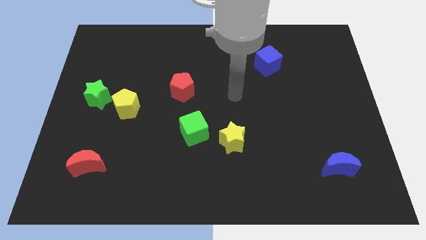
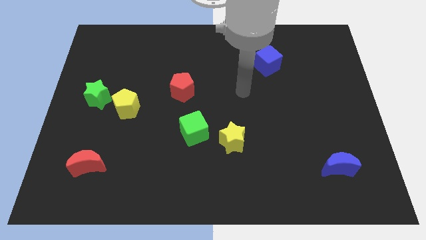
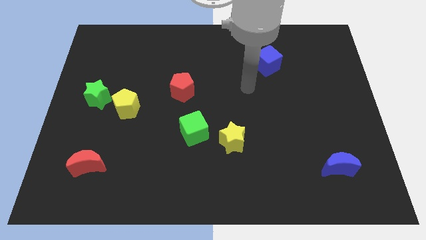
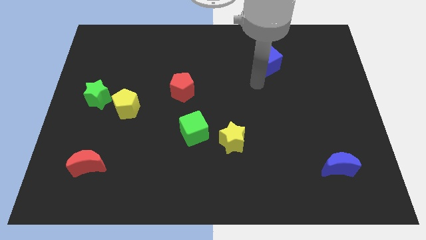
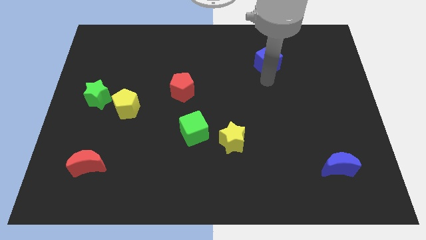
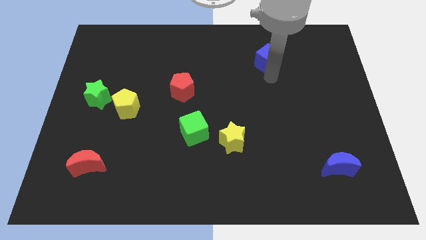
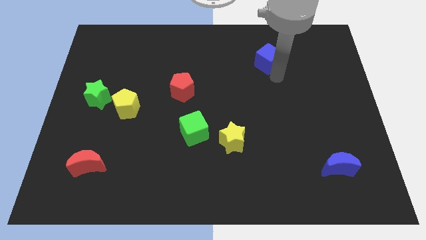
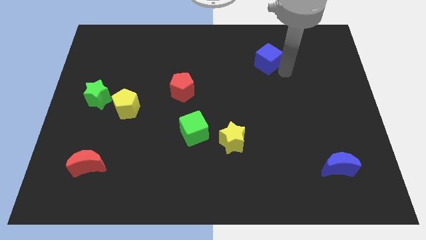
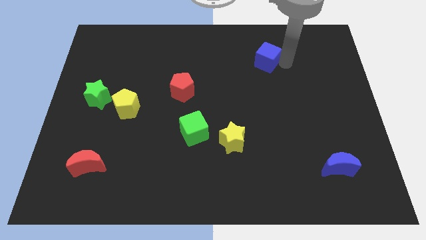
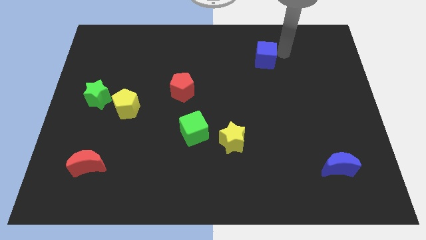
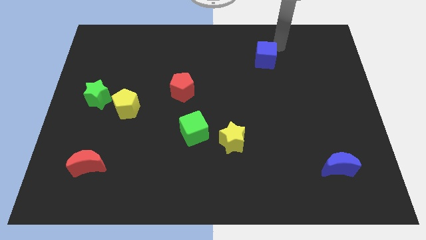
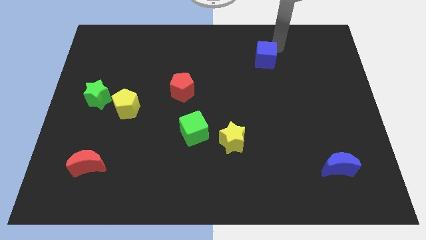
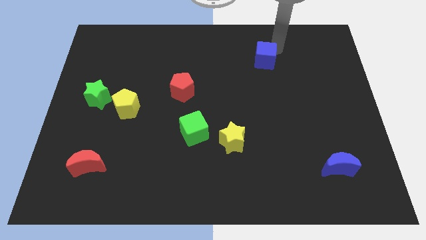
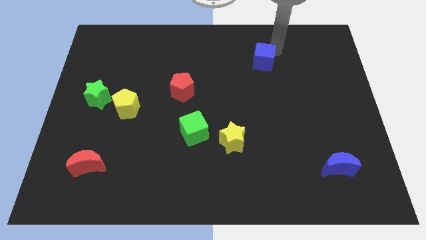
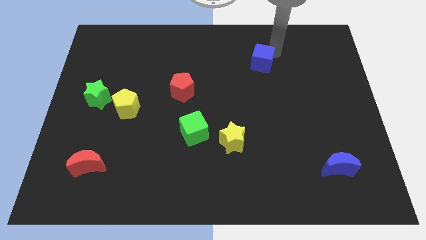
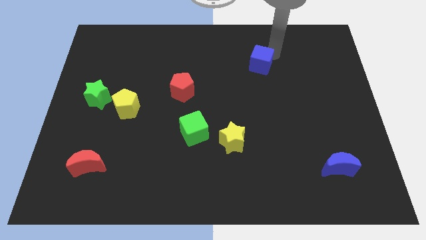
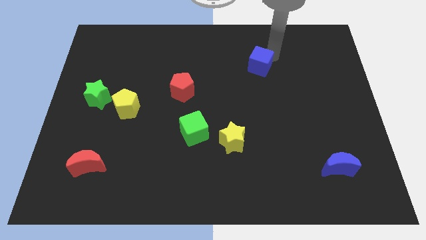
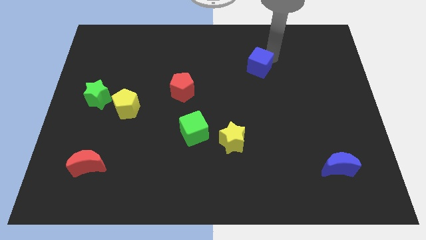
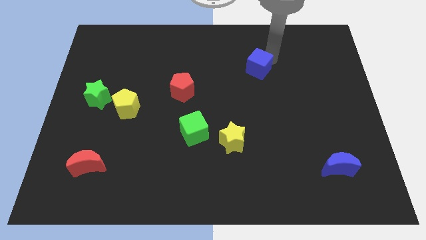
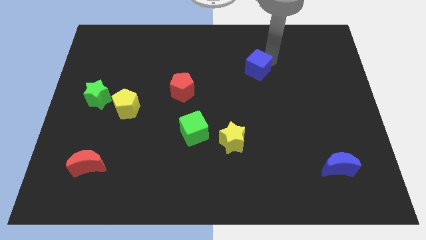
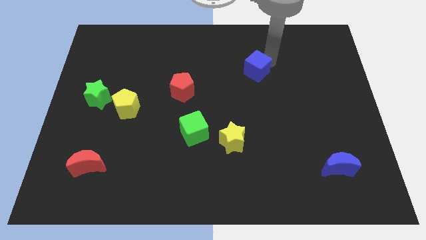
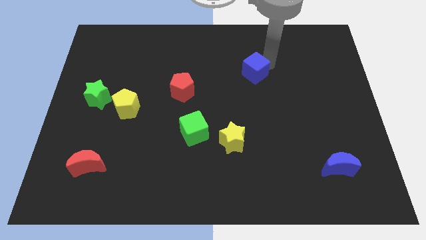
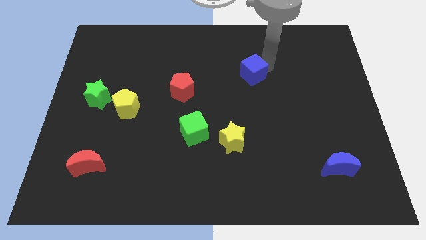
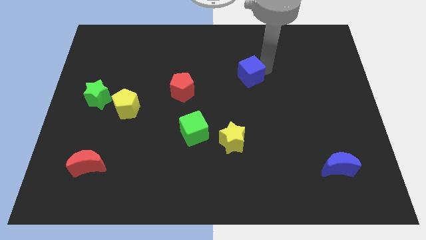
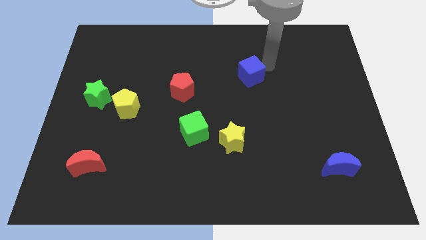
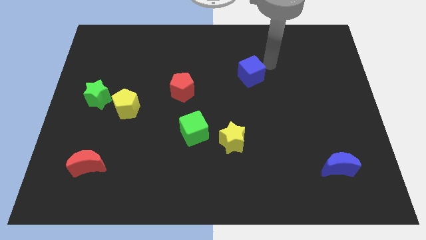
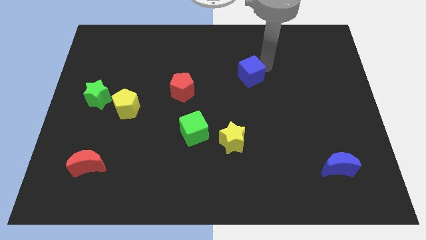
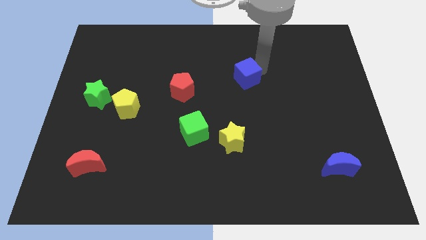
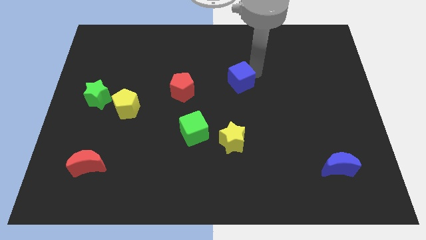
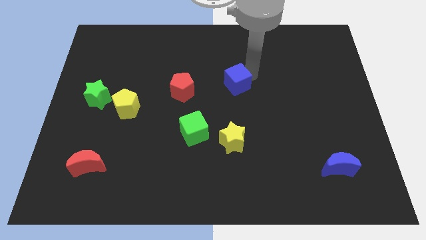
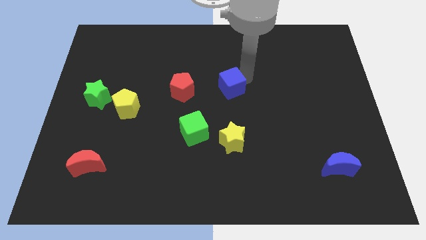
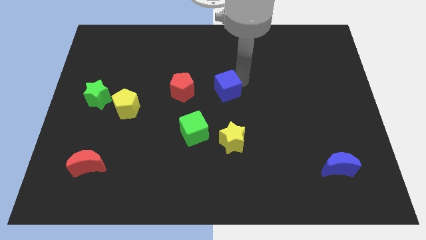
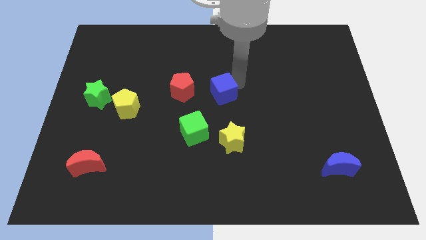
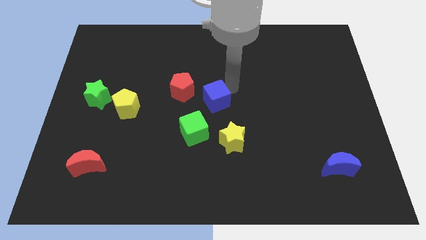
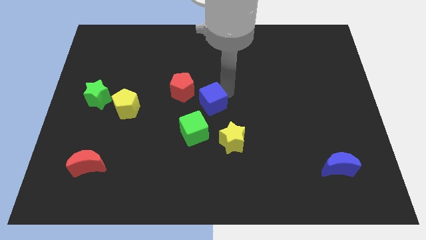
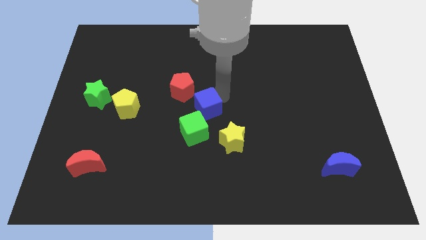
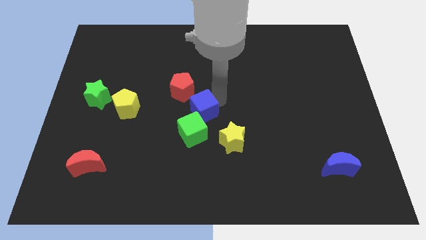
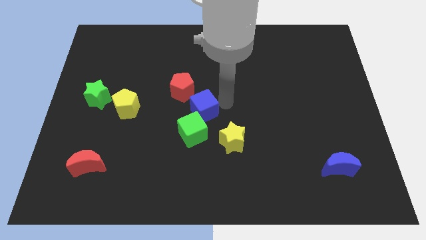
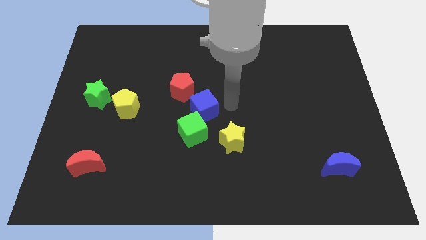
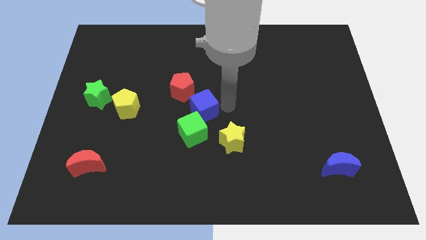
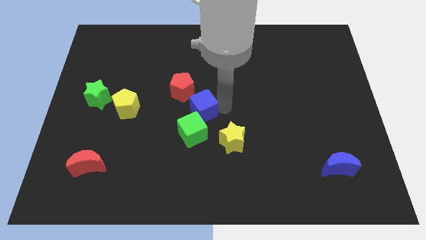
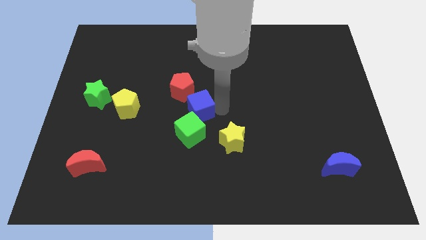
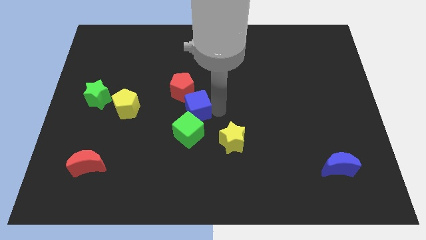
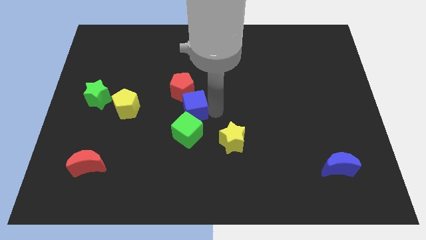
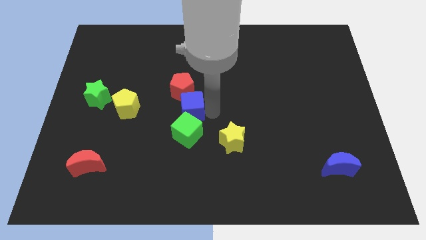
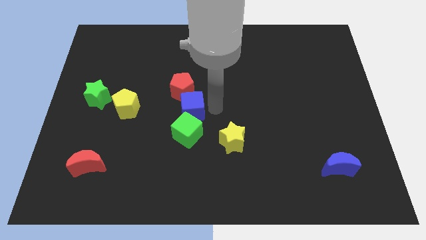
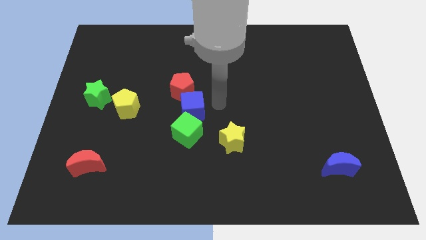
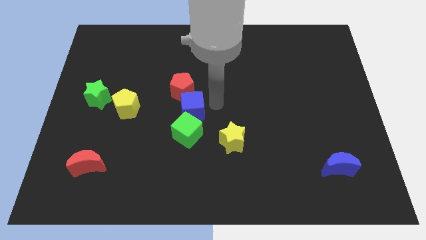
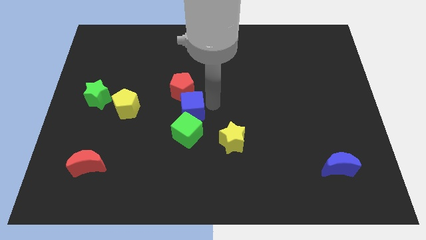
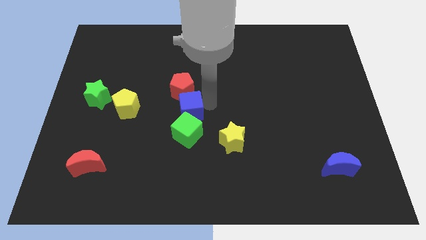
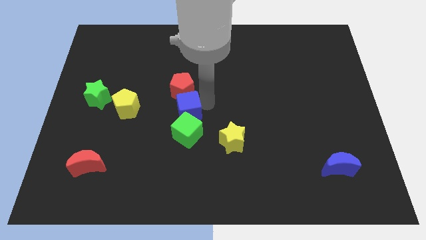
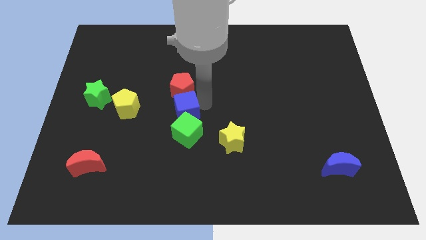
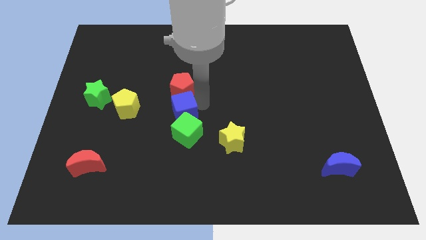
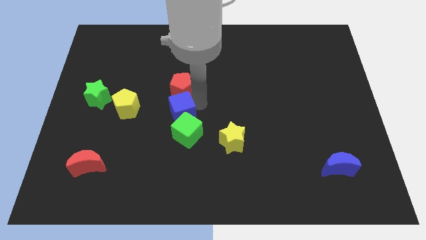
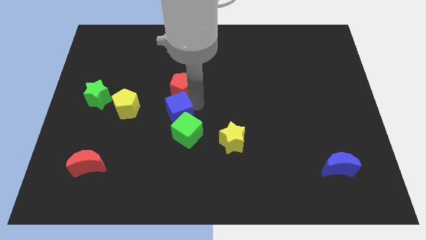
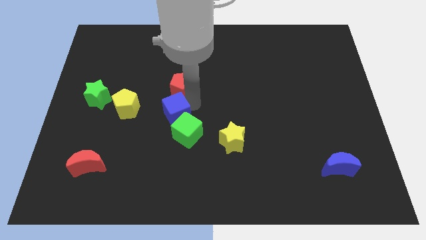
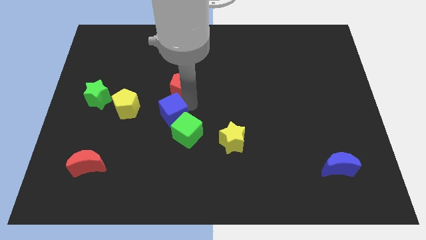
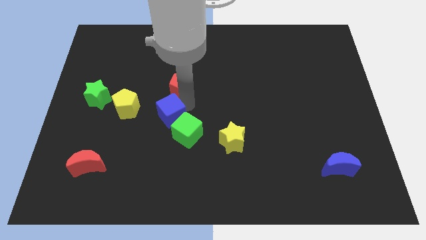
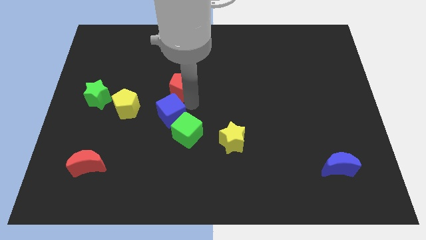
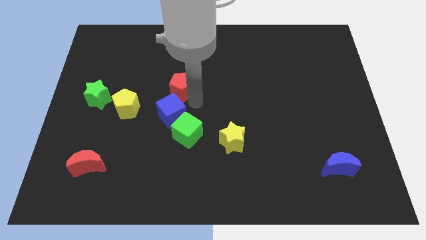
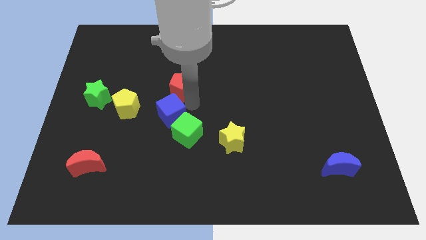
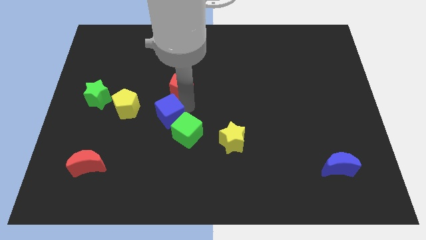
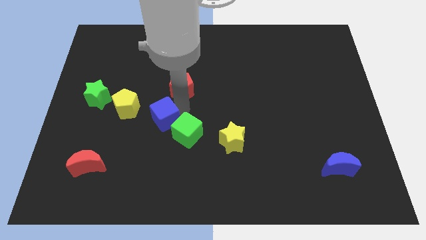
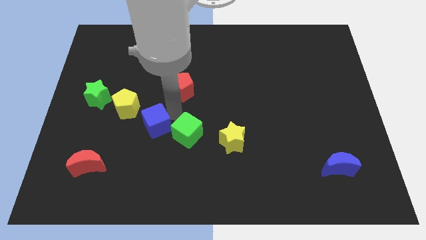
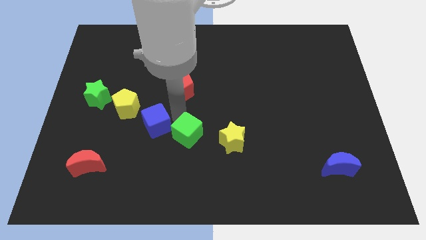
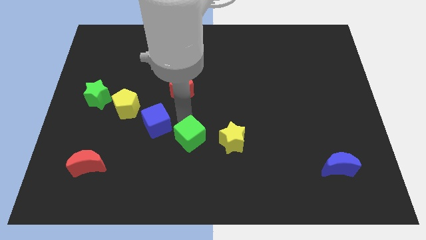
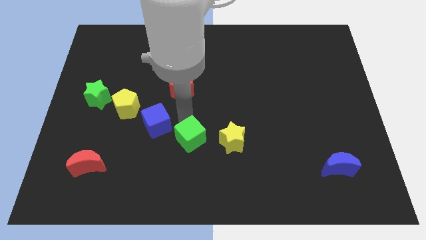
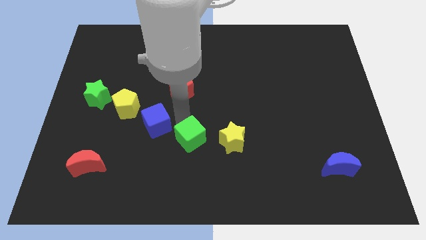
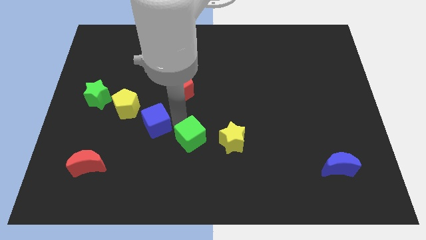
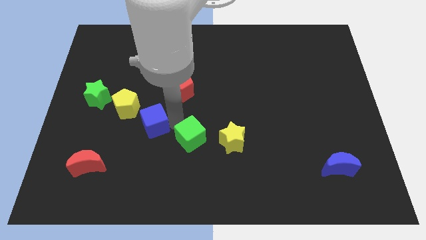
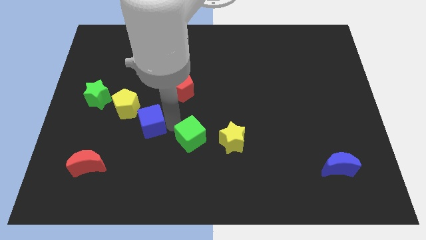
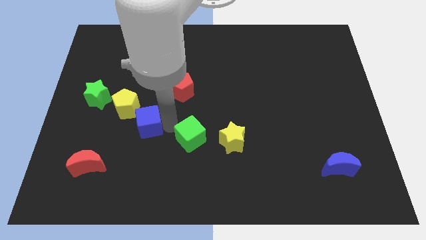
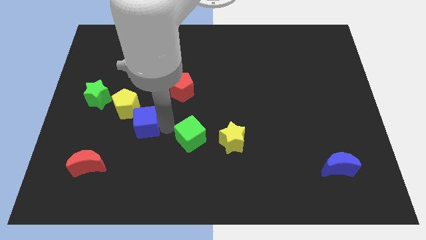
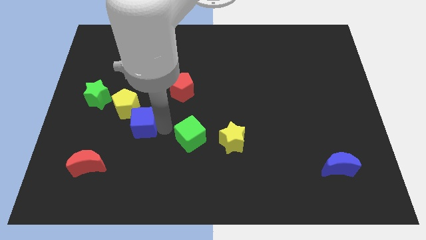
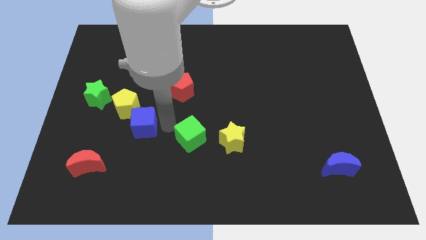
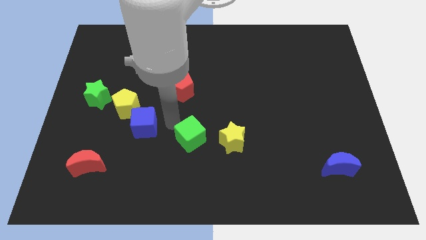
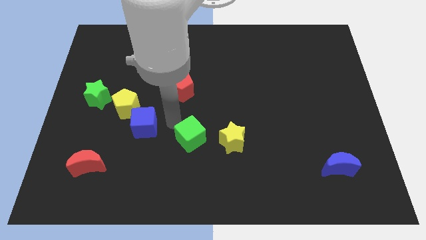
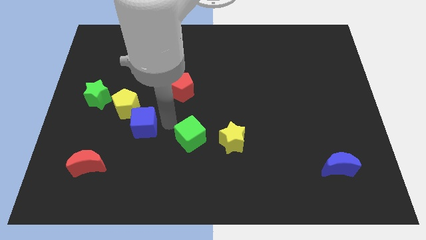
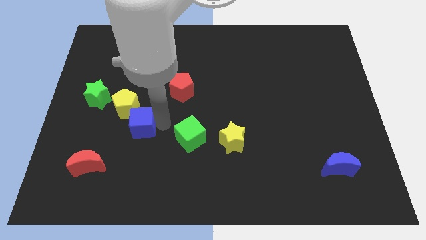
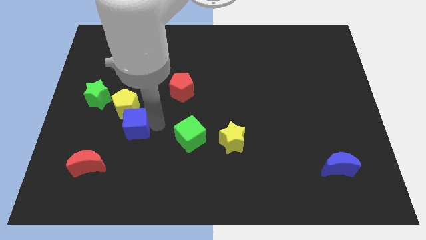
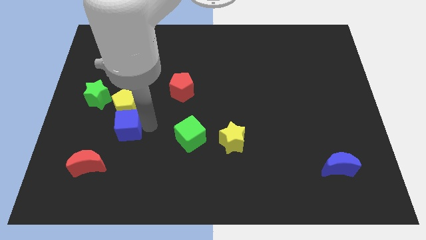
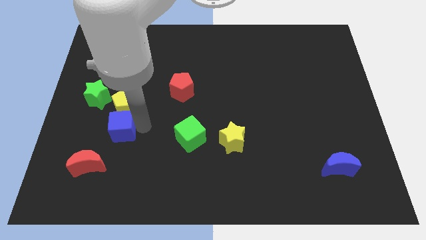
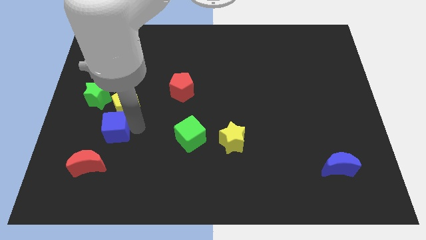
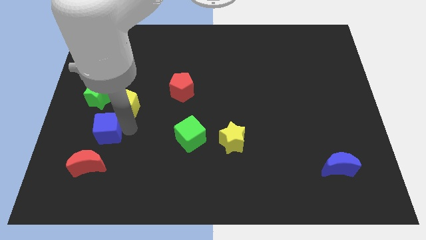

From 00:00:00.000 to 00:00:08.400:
put the blue cube to the bottom side of the green star
